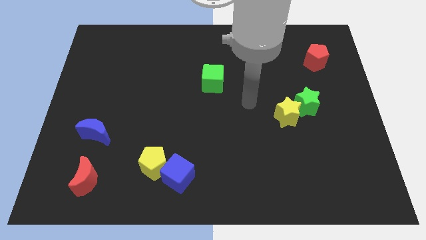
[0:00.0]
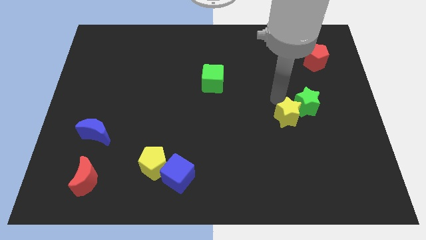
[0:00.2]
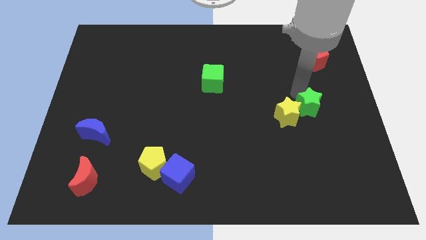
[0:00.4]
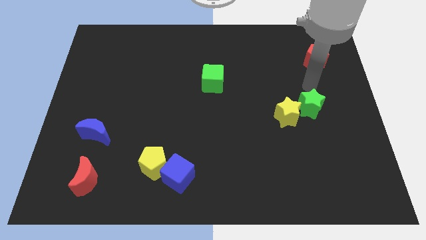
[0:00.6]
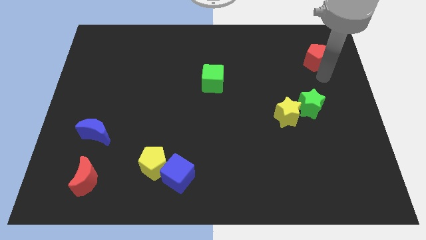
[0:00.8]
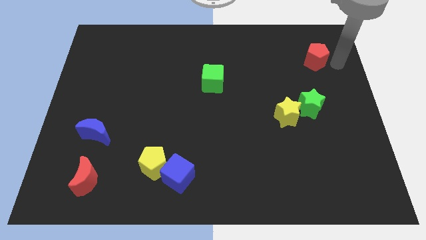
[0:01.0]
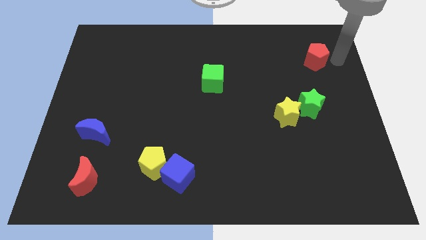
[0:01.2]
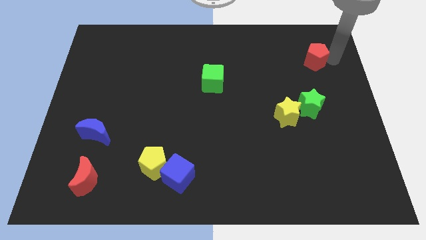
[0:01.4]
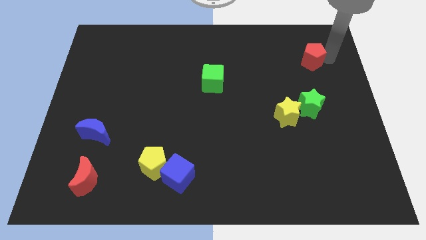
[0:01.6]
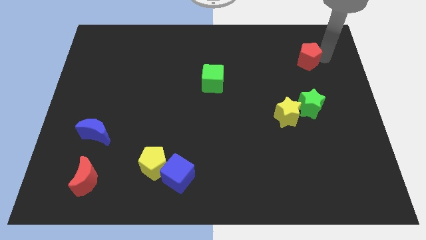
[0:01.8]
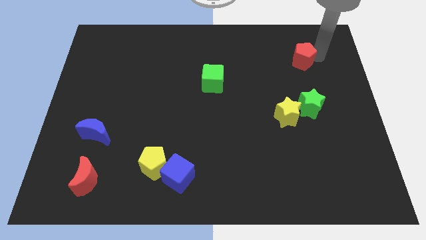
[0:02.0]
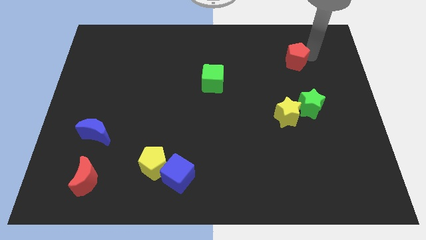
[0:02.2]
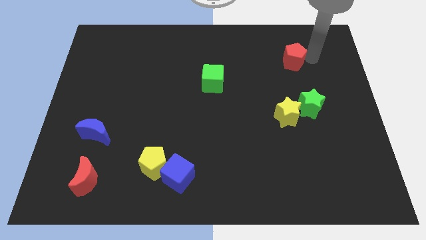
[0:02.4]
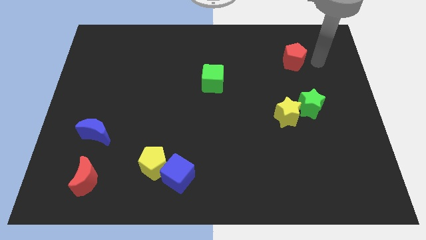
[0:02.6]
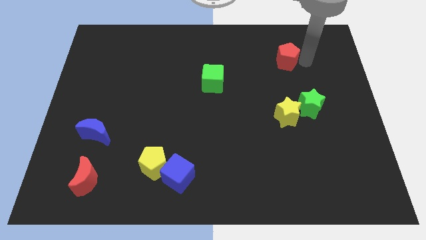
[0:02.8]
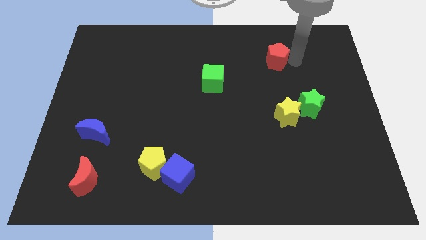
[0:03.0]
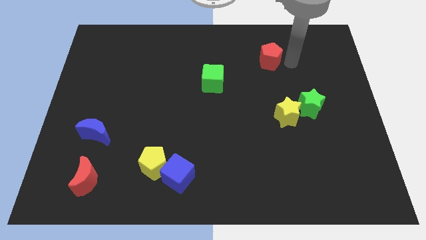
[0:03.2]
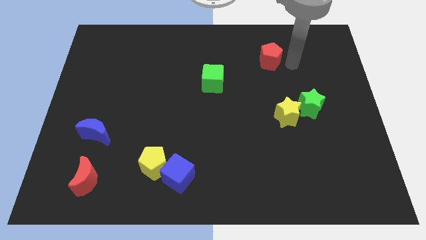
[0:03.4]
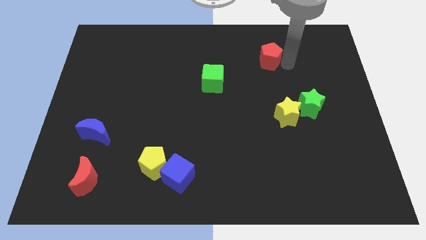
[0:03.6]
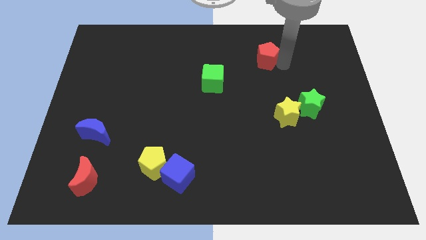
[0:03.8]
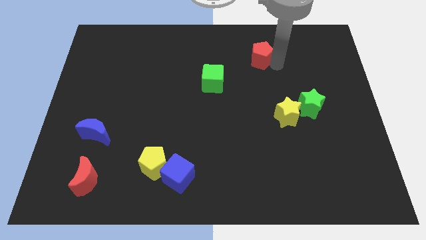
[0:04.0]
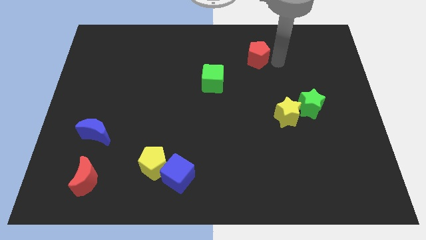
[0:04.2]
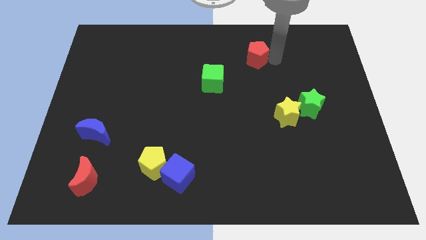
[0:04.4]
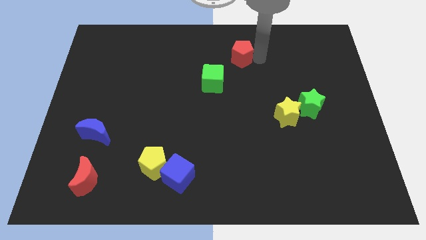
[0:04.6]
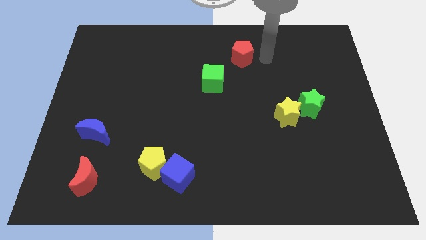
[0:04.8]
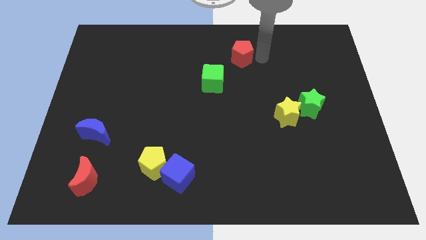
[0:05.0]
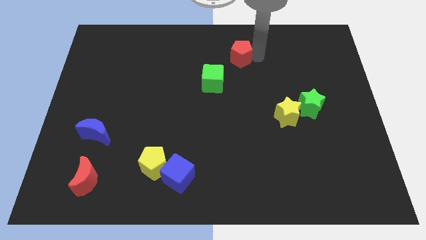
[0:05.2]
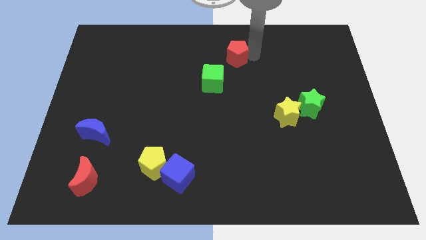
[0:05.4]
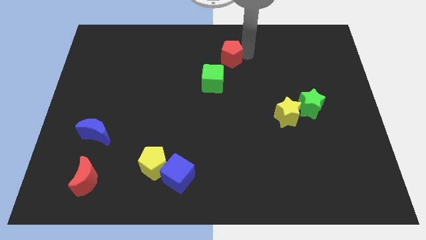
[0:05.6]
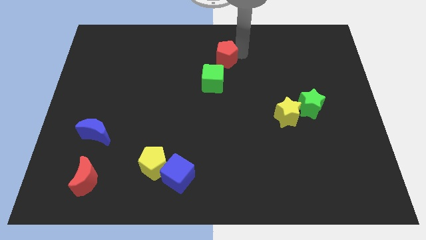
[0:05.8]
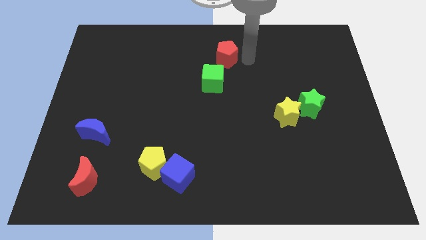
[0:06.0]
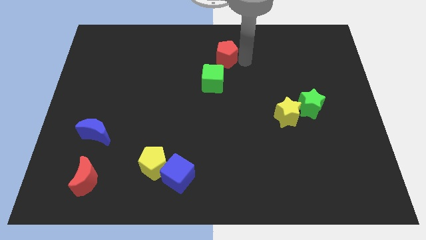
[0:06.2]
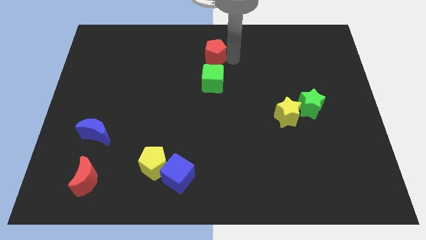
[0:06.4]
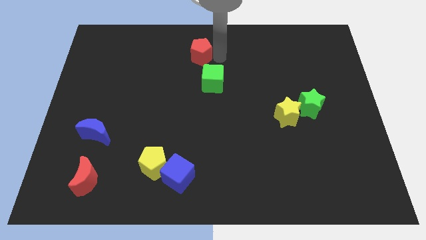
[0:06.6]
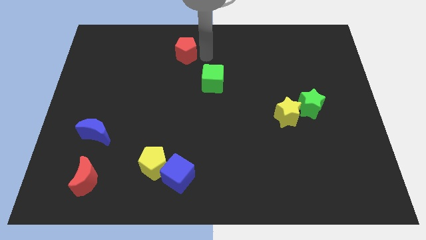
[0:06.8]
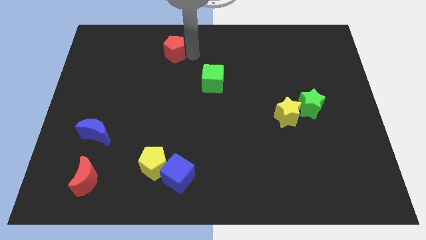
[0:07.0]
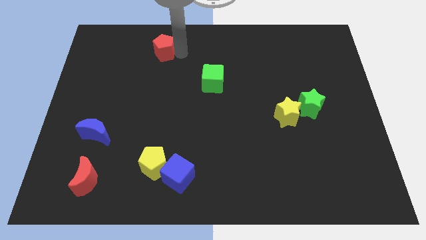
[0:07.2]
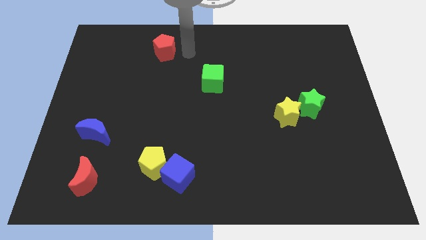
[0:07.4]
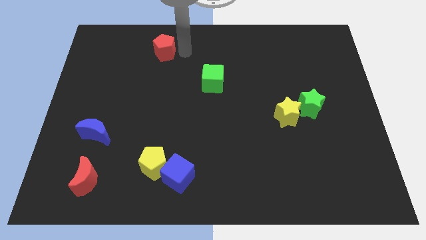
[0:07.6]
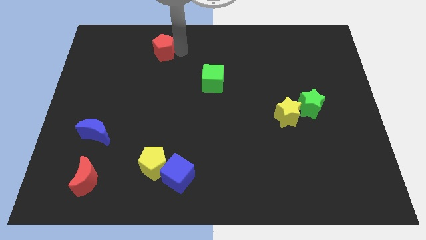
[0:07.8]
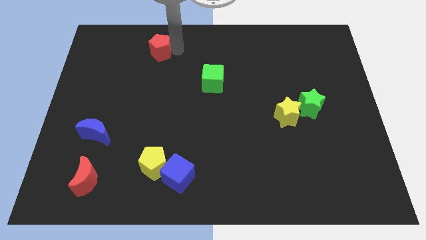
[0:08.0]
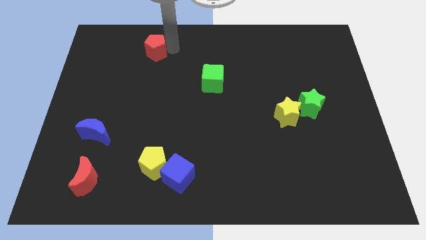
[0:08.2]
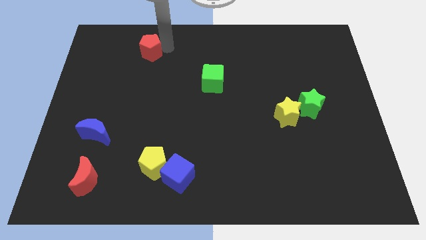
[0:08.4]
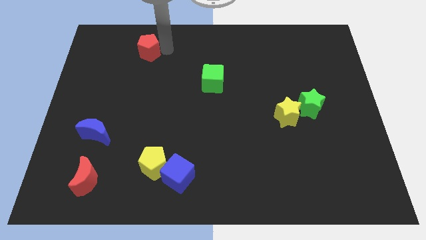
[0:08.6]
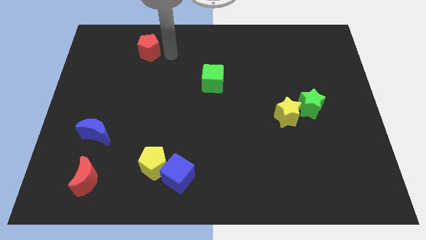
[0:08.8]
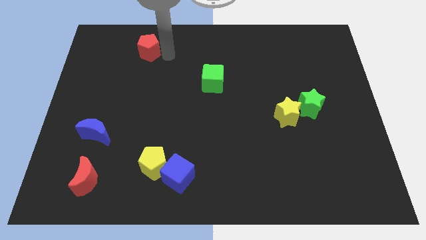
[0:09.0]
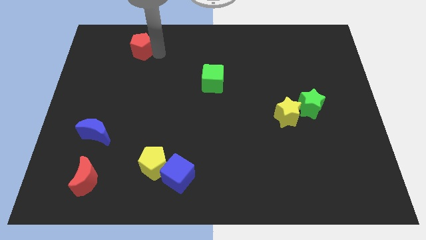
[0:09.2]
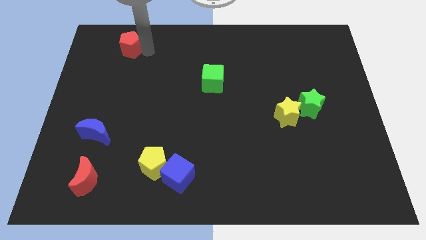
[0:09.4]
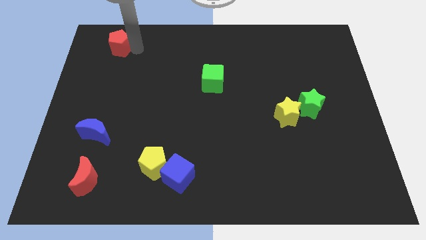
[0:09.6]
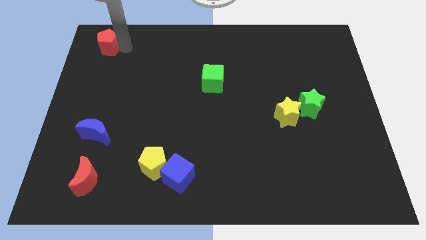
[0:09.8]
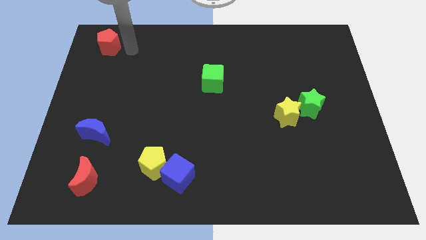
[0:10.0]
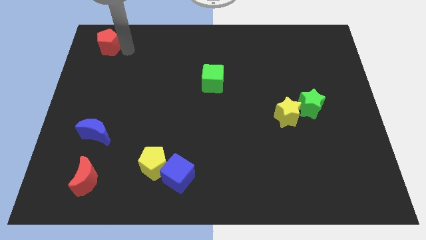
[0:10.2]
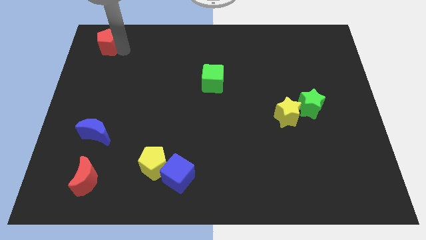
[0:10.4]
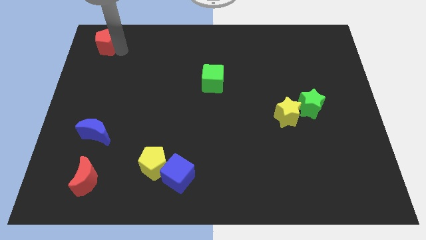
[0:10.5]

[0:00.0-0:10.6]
move the red pentagon to the top left of the board

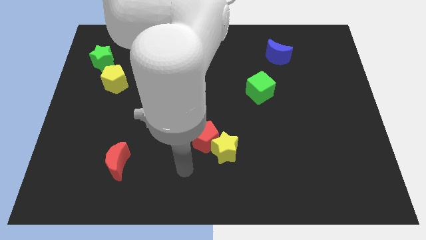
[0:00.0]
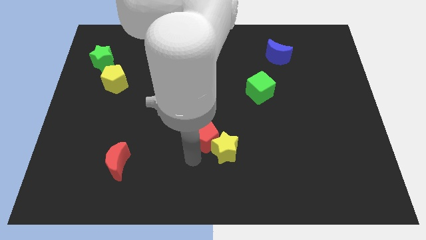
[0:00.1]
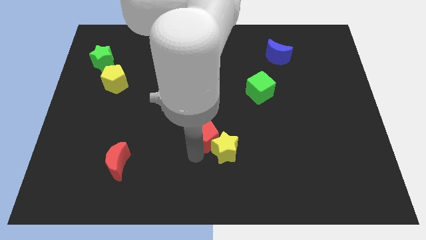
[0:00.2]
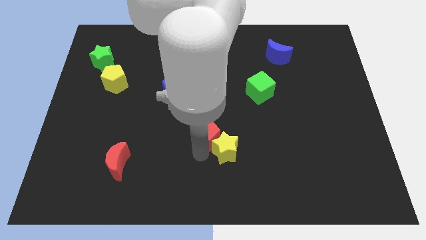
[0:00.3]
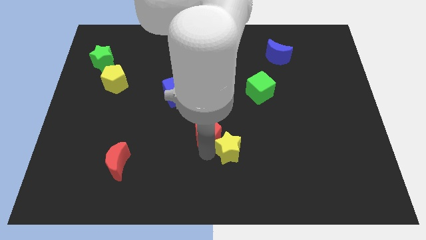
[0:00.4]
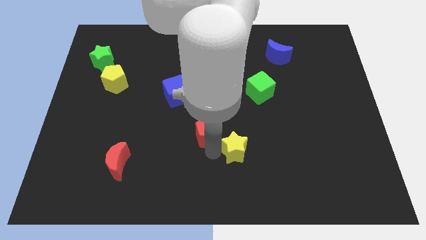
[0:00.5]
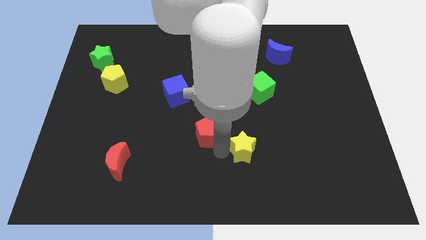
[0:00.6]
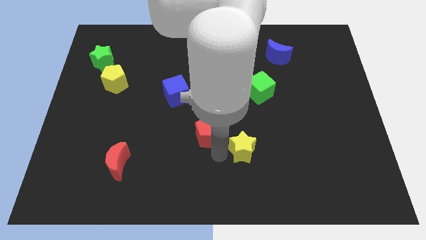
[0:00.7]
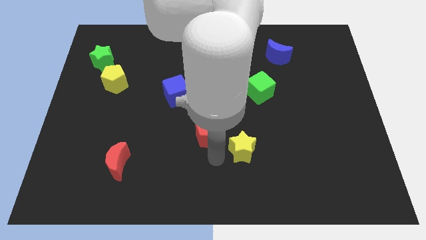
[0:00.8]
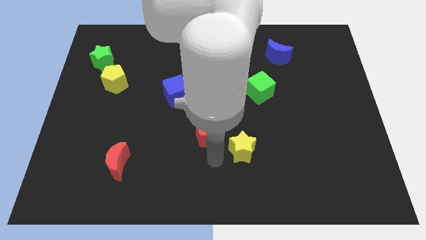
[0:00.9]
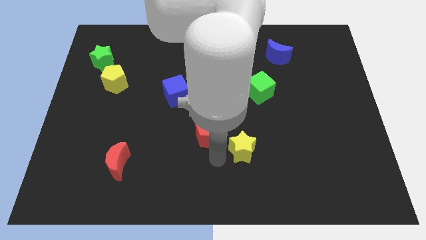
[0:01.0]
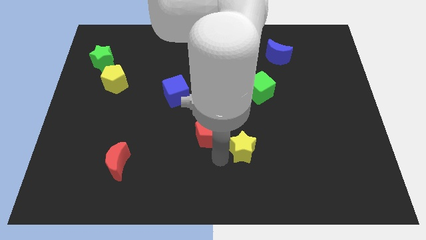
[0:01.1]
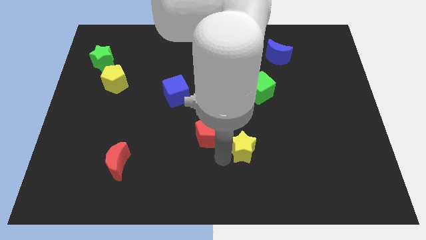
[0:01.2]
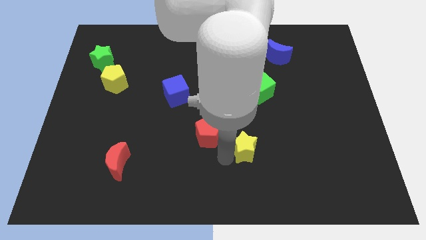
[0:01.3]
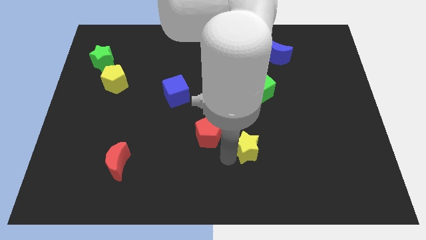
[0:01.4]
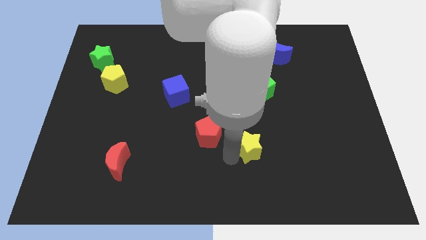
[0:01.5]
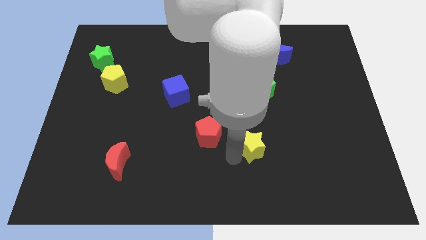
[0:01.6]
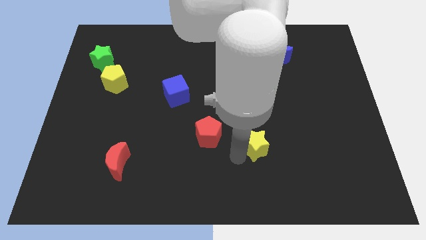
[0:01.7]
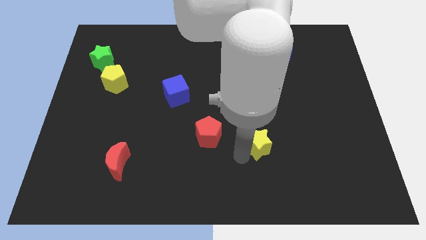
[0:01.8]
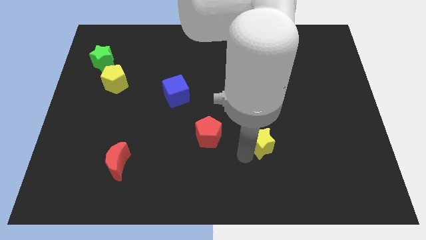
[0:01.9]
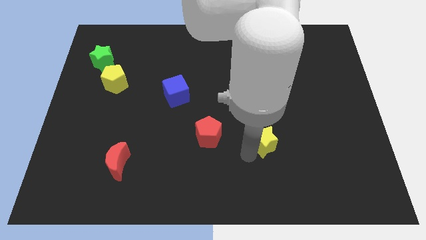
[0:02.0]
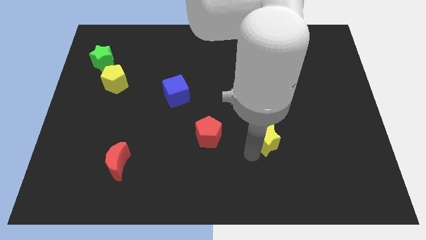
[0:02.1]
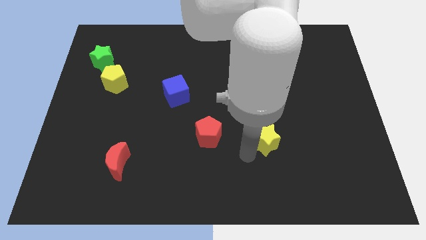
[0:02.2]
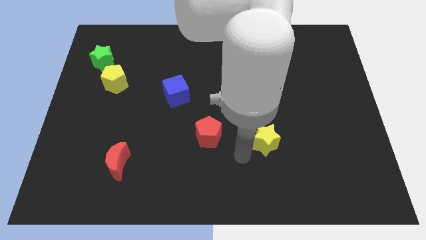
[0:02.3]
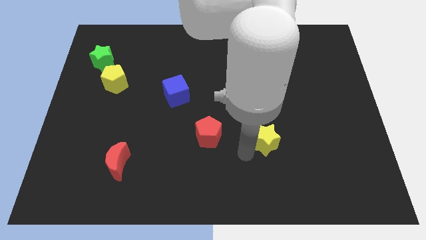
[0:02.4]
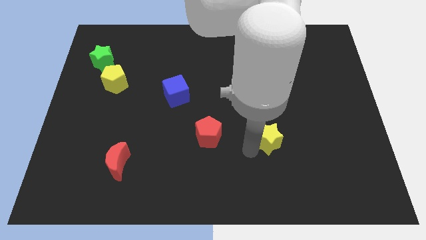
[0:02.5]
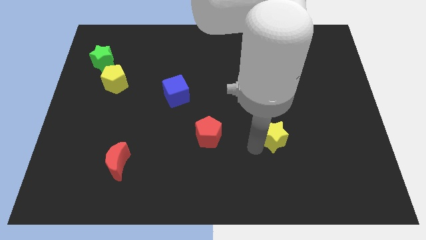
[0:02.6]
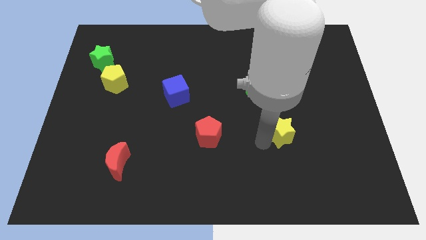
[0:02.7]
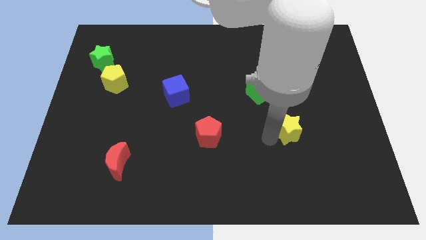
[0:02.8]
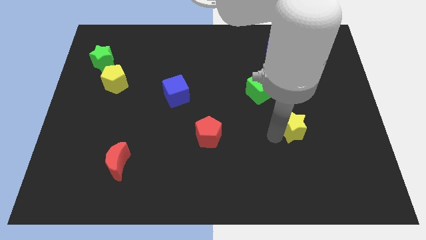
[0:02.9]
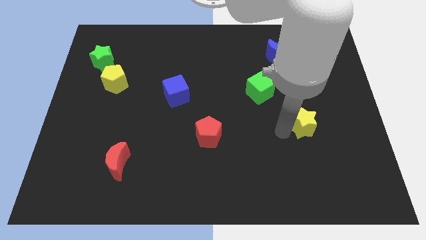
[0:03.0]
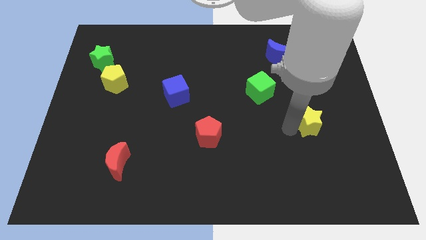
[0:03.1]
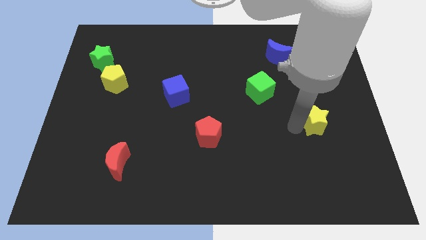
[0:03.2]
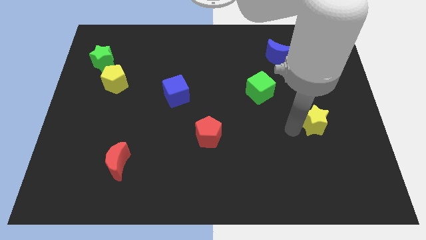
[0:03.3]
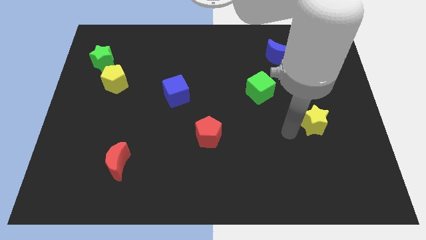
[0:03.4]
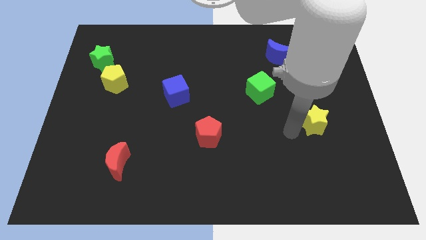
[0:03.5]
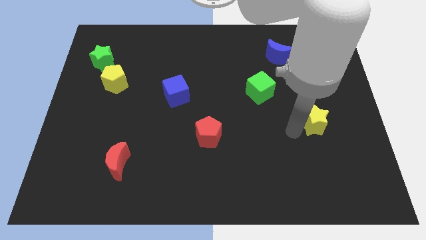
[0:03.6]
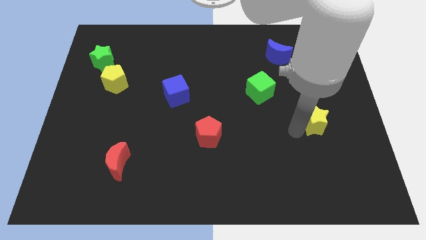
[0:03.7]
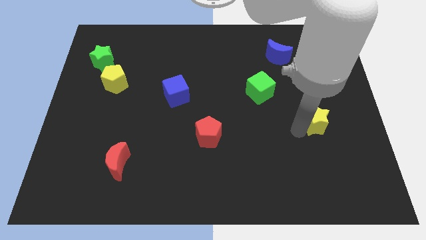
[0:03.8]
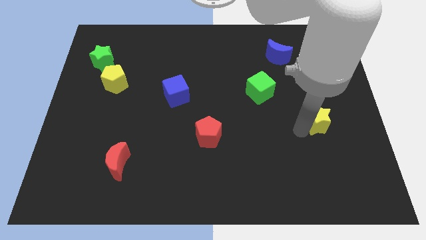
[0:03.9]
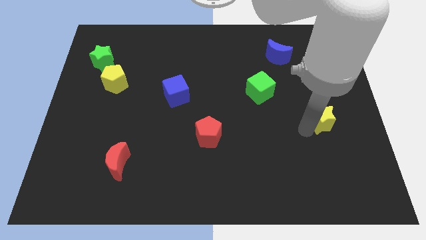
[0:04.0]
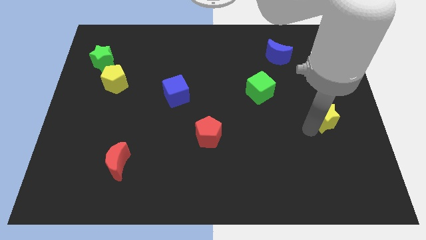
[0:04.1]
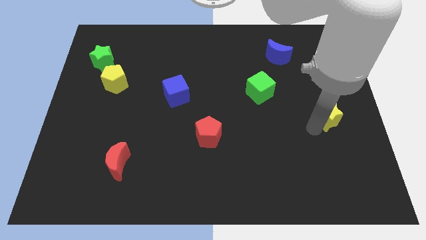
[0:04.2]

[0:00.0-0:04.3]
push the yellow star to the right side
